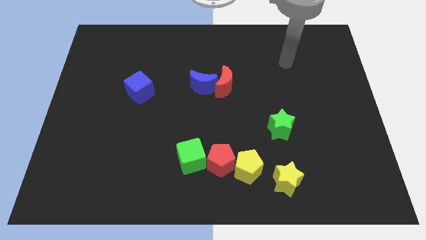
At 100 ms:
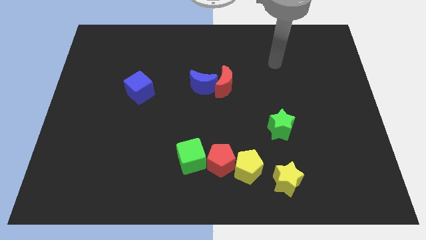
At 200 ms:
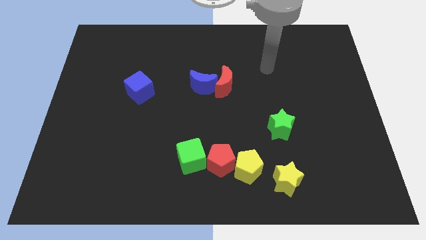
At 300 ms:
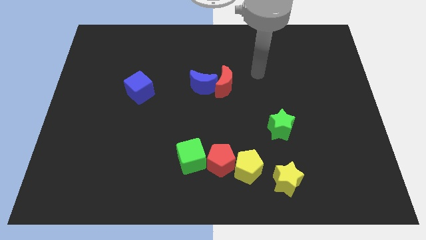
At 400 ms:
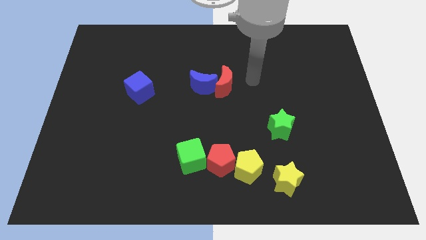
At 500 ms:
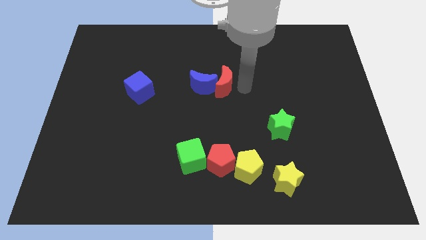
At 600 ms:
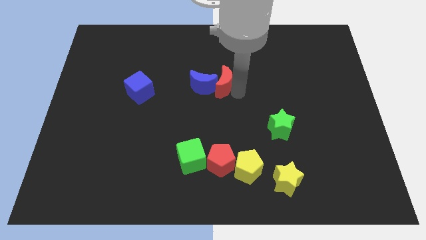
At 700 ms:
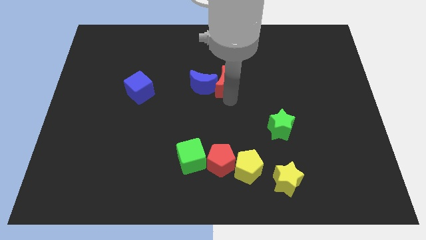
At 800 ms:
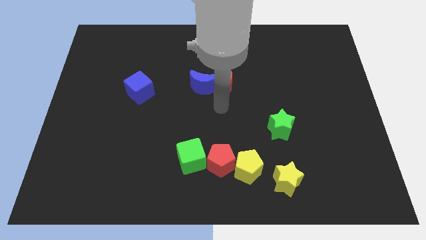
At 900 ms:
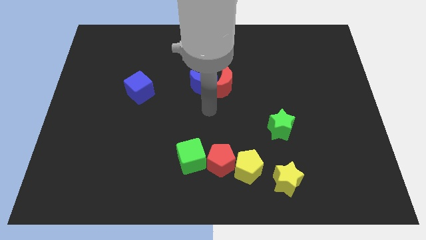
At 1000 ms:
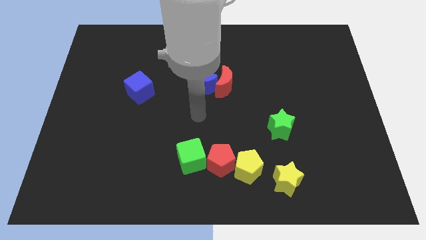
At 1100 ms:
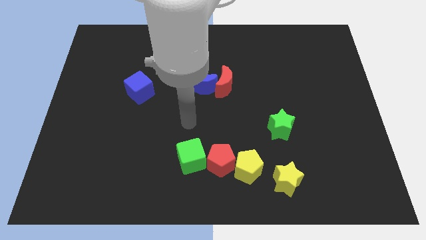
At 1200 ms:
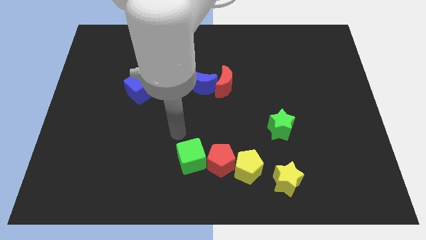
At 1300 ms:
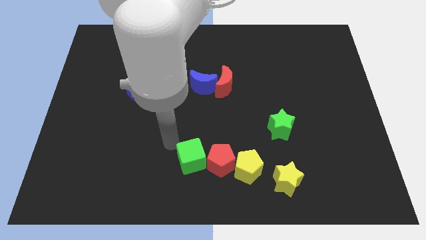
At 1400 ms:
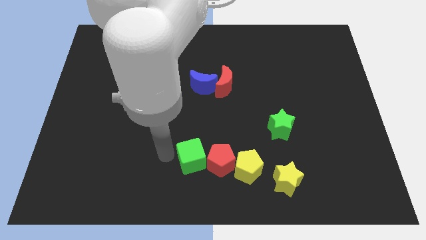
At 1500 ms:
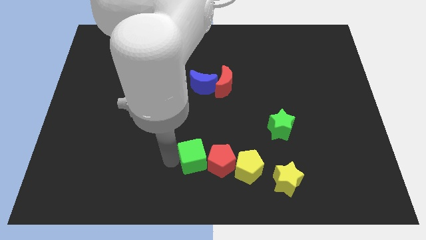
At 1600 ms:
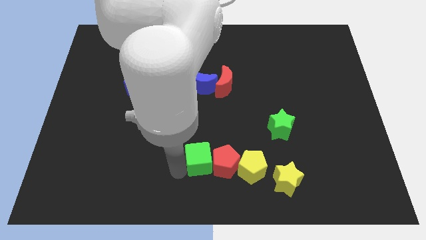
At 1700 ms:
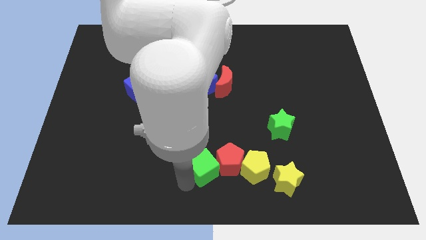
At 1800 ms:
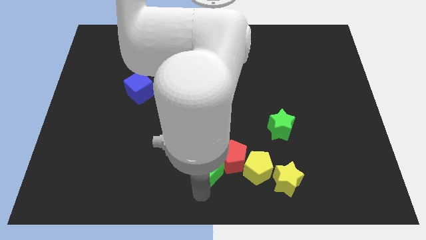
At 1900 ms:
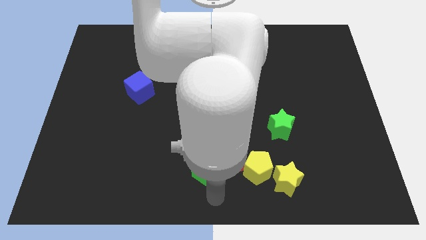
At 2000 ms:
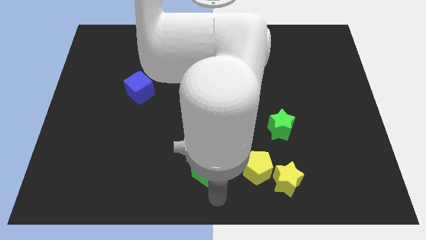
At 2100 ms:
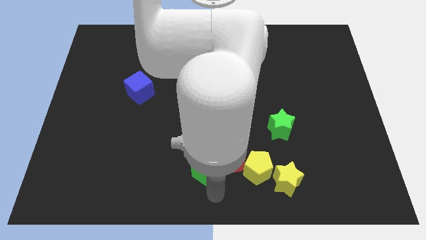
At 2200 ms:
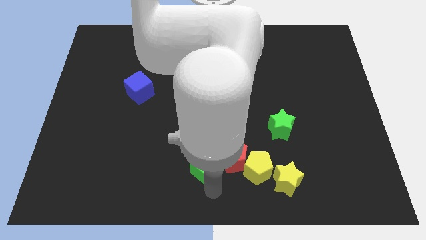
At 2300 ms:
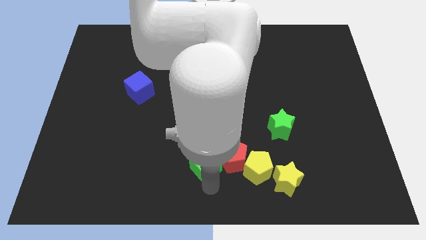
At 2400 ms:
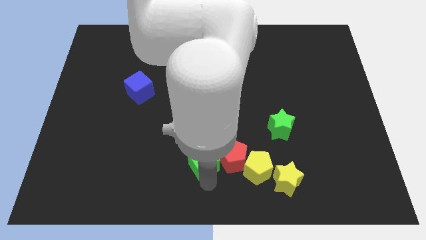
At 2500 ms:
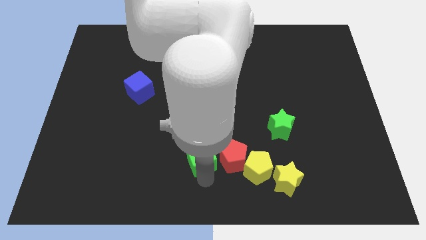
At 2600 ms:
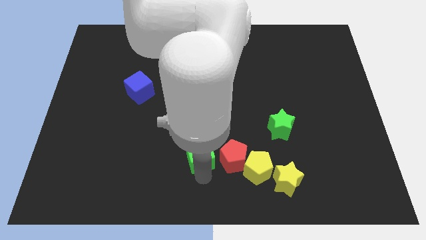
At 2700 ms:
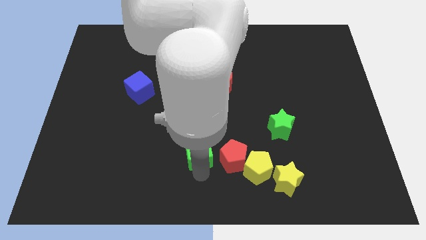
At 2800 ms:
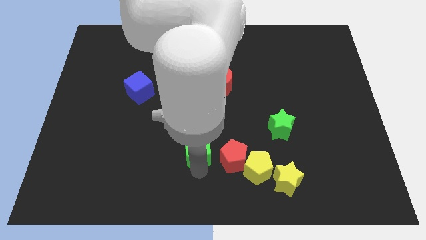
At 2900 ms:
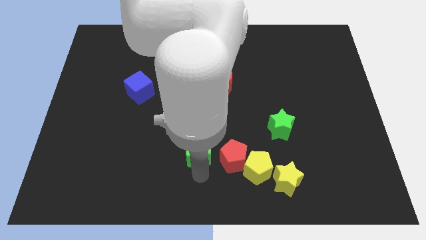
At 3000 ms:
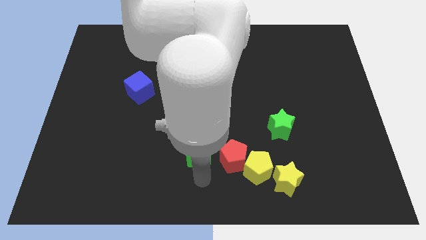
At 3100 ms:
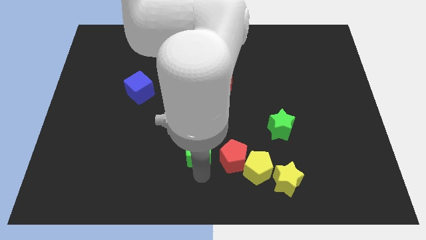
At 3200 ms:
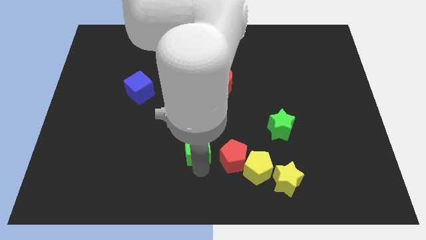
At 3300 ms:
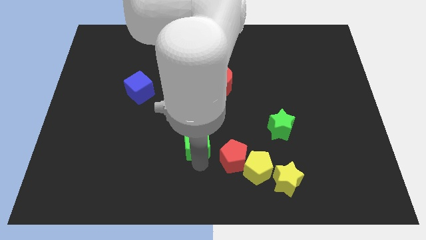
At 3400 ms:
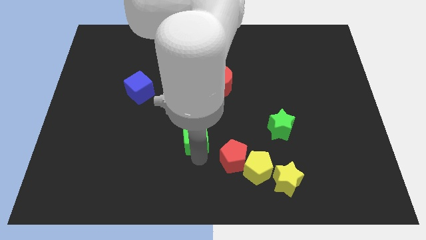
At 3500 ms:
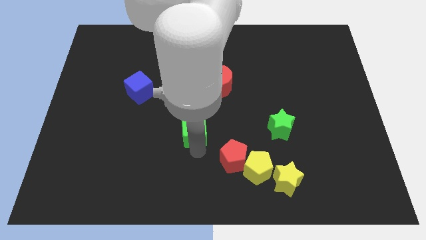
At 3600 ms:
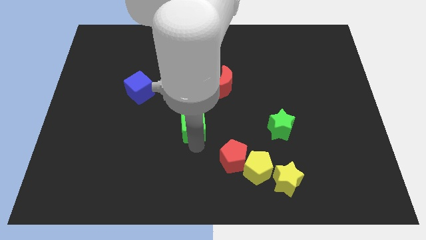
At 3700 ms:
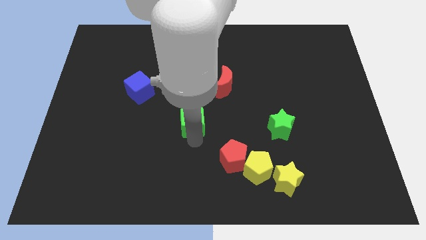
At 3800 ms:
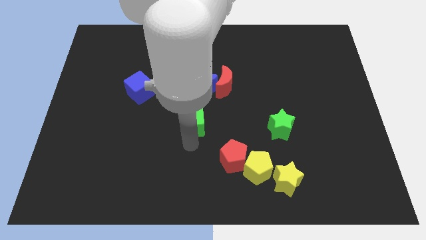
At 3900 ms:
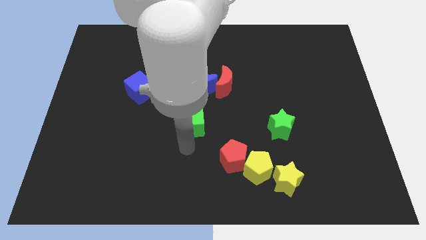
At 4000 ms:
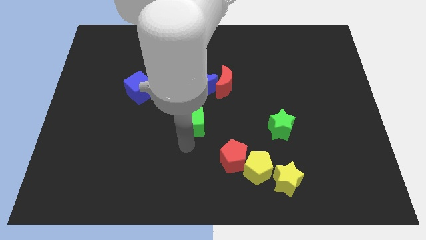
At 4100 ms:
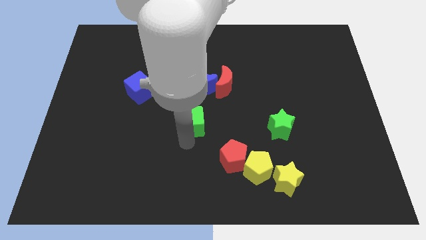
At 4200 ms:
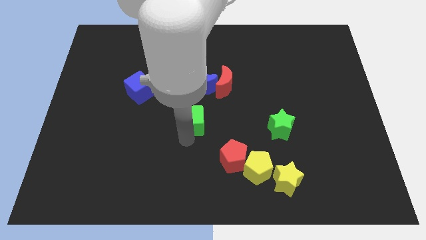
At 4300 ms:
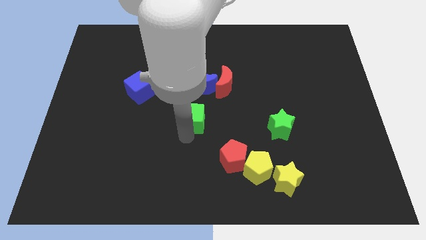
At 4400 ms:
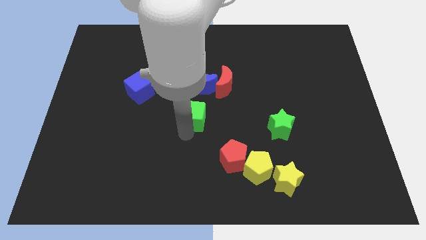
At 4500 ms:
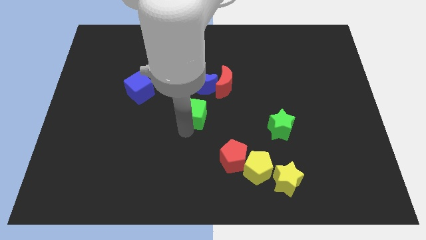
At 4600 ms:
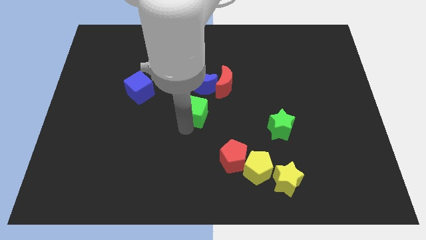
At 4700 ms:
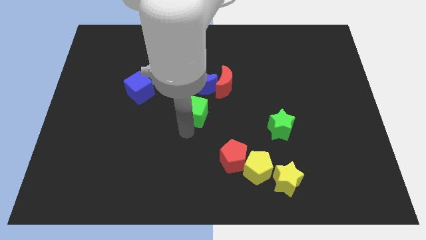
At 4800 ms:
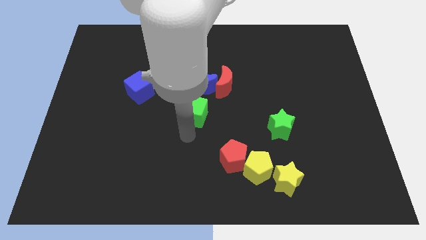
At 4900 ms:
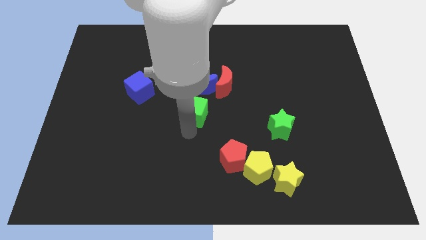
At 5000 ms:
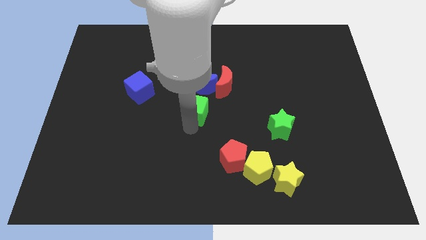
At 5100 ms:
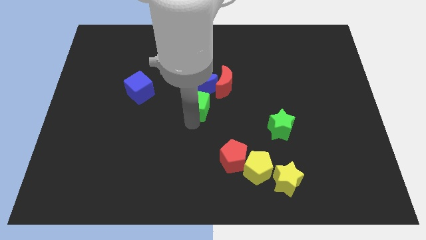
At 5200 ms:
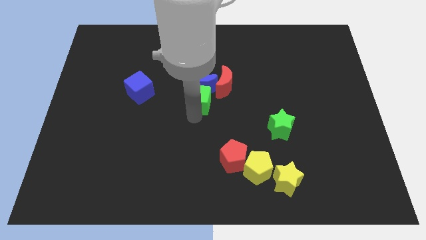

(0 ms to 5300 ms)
put the green cube towards the blue moon

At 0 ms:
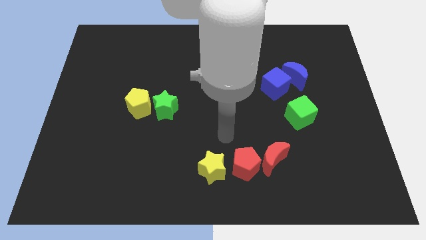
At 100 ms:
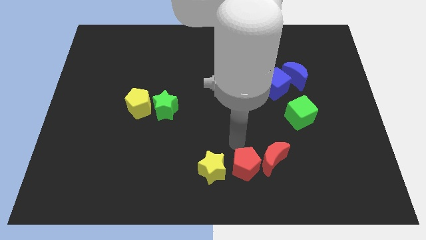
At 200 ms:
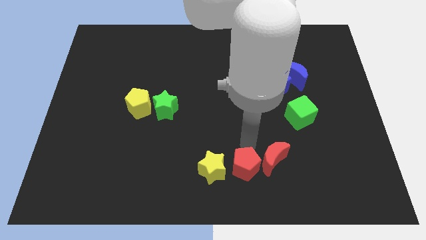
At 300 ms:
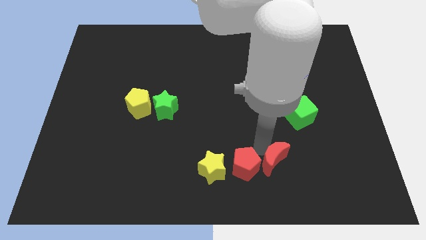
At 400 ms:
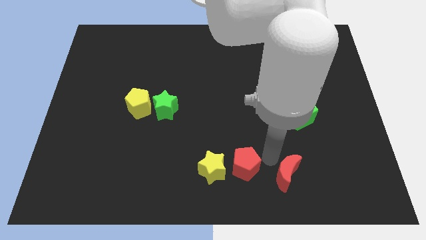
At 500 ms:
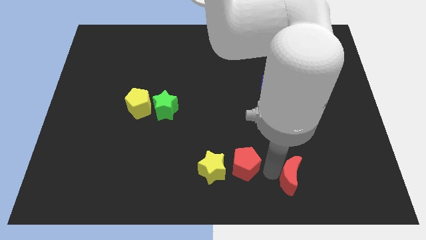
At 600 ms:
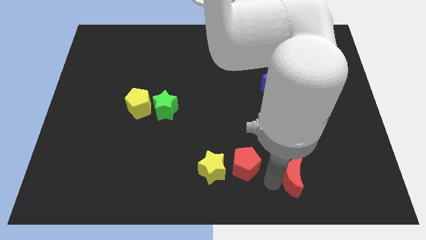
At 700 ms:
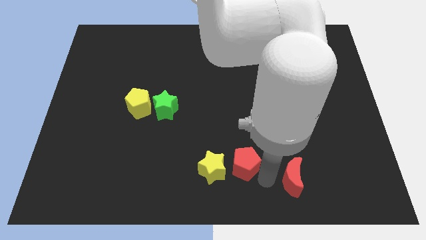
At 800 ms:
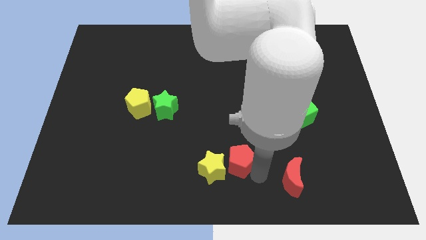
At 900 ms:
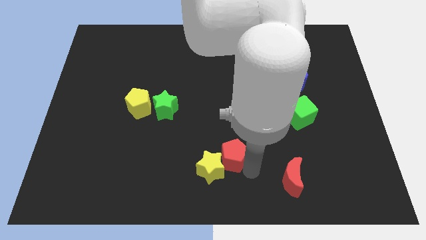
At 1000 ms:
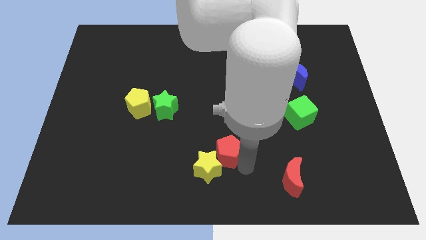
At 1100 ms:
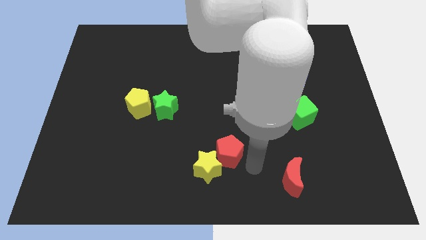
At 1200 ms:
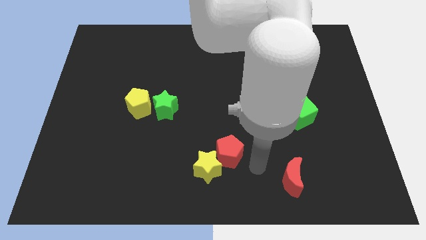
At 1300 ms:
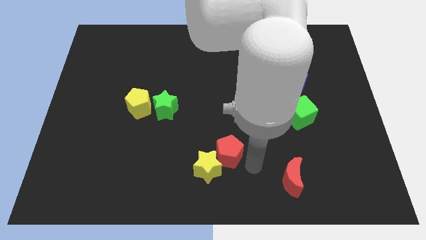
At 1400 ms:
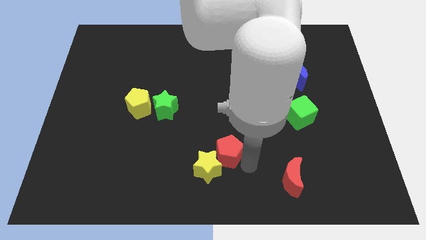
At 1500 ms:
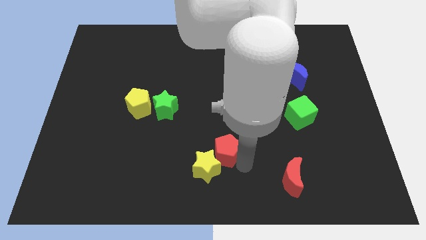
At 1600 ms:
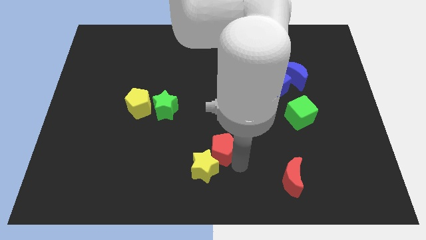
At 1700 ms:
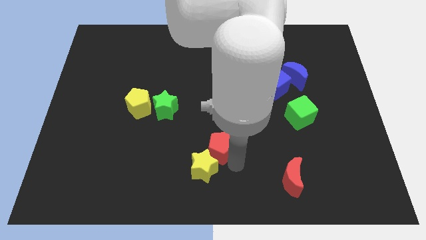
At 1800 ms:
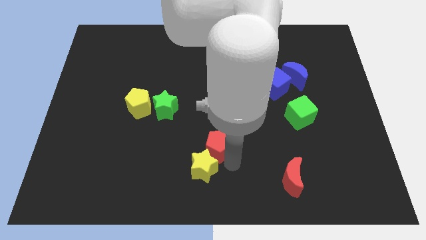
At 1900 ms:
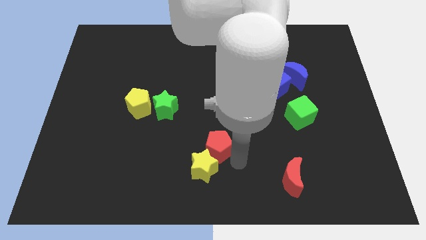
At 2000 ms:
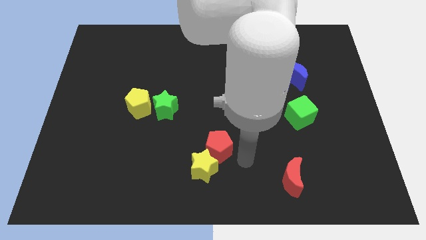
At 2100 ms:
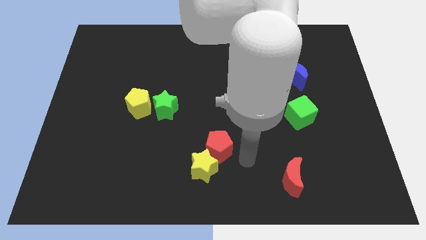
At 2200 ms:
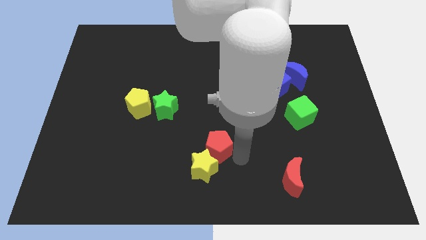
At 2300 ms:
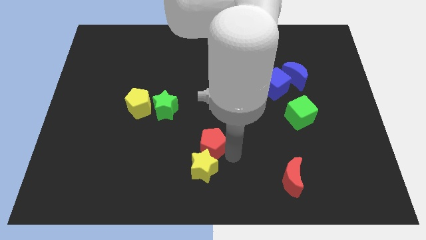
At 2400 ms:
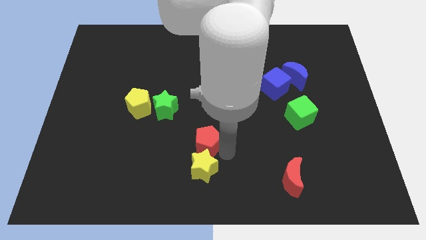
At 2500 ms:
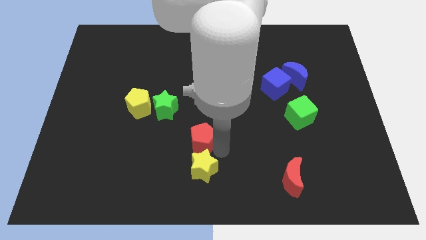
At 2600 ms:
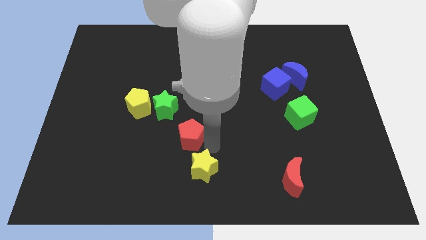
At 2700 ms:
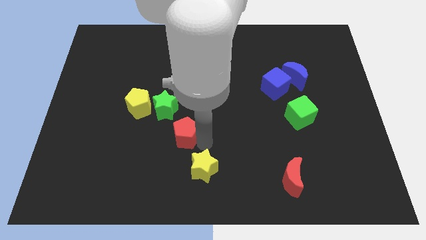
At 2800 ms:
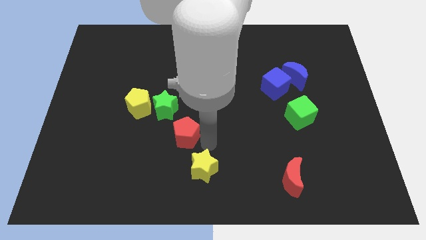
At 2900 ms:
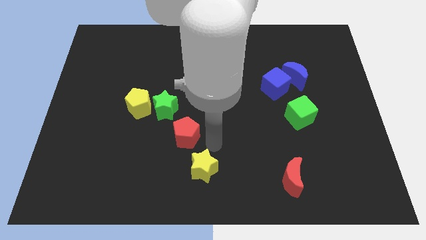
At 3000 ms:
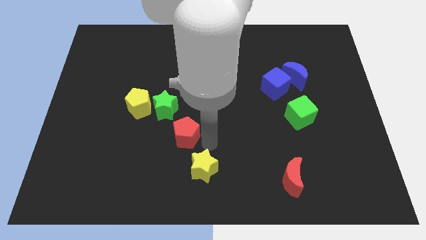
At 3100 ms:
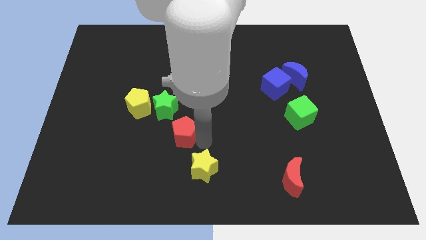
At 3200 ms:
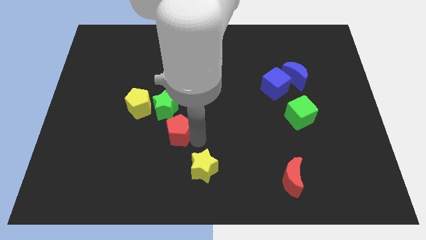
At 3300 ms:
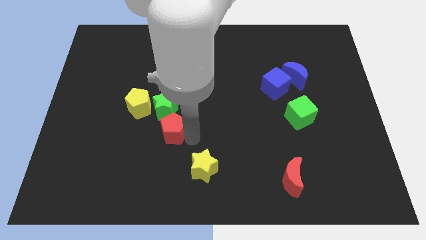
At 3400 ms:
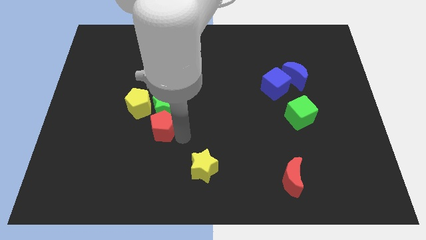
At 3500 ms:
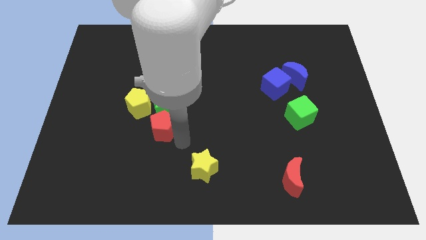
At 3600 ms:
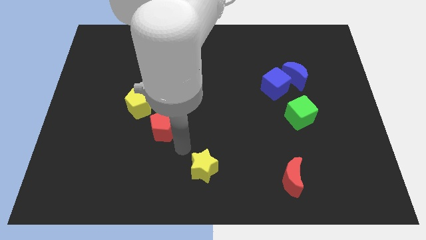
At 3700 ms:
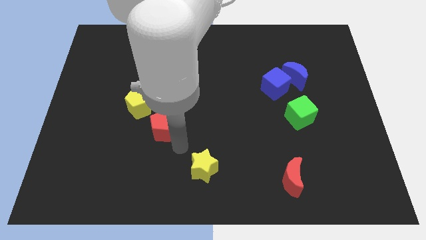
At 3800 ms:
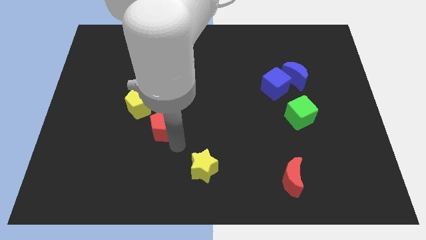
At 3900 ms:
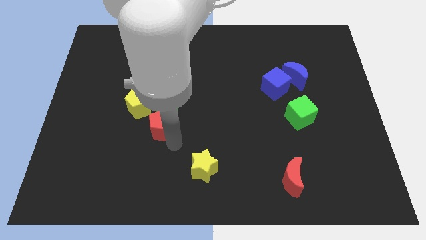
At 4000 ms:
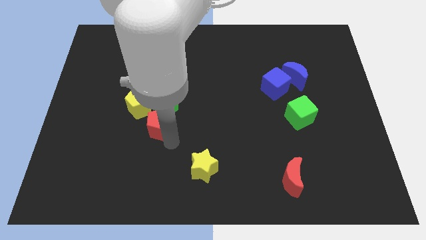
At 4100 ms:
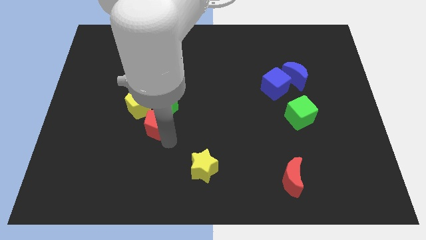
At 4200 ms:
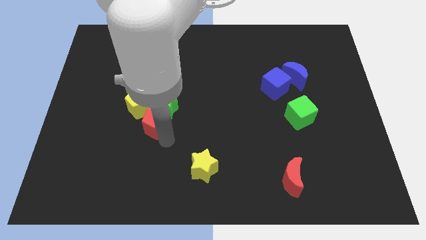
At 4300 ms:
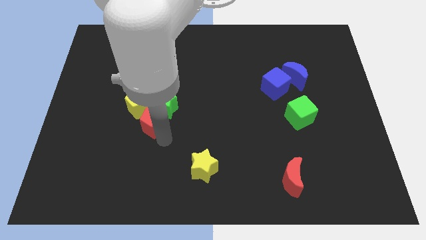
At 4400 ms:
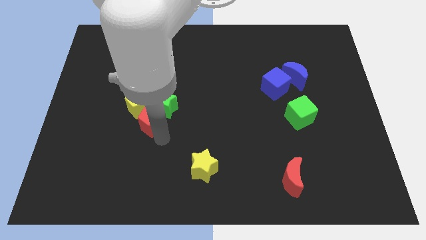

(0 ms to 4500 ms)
move the red pentagon next to the yellow pentagon
